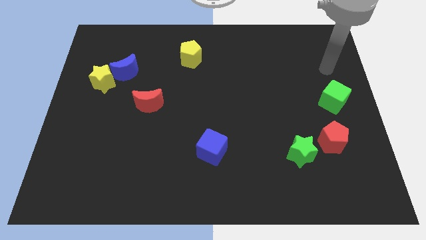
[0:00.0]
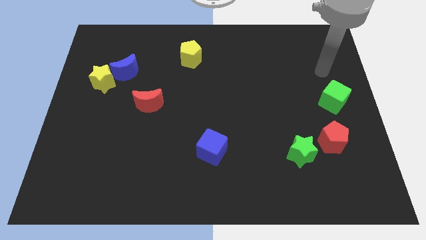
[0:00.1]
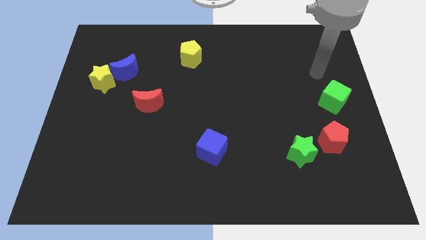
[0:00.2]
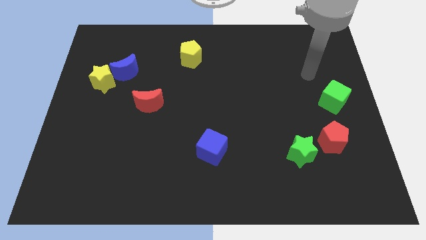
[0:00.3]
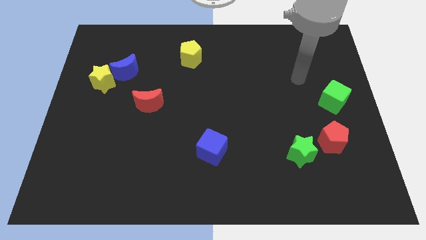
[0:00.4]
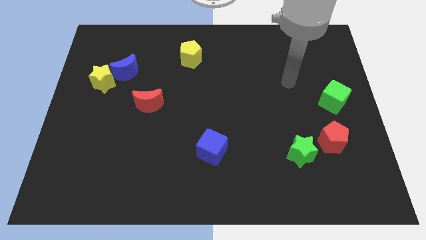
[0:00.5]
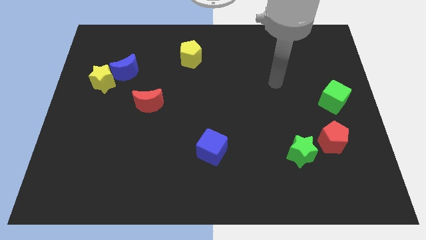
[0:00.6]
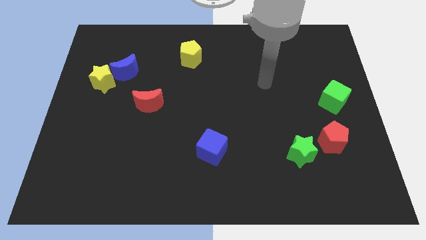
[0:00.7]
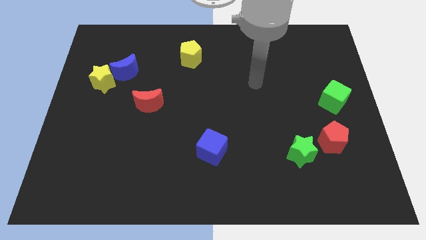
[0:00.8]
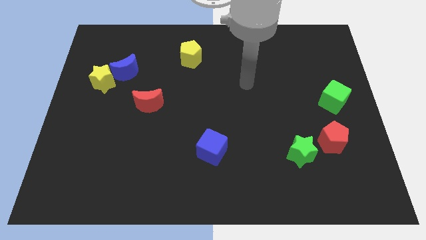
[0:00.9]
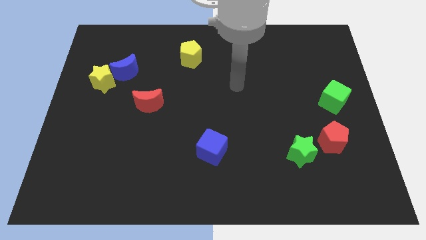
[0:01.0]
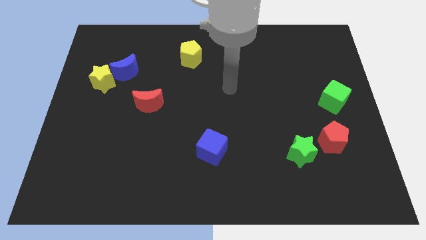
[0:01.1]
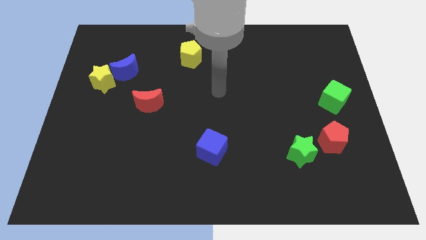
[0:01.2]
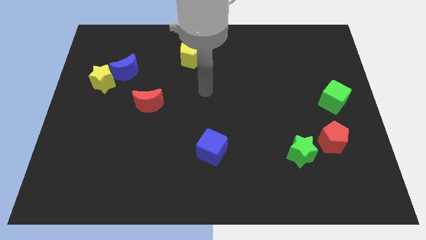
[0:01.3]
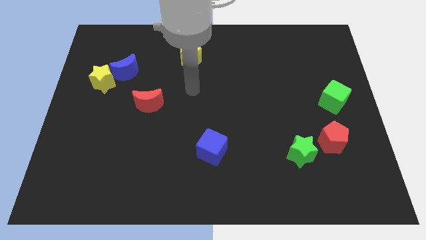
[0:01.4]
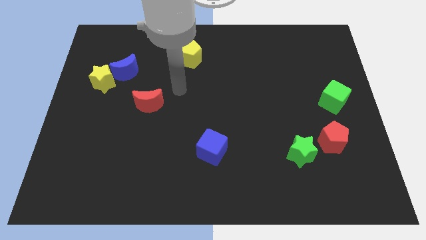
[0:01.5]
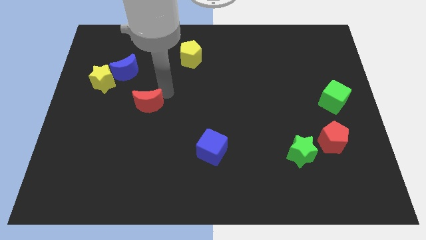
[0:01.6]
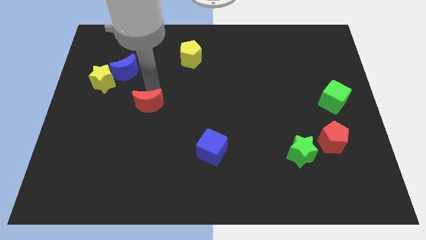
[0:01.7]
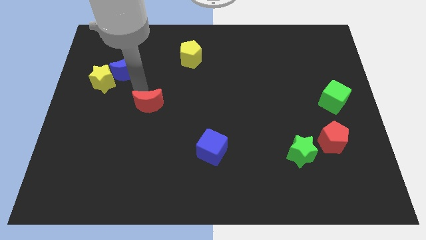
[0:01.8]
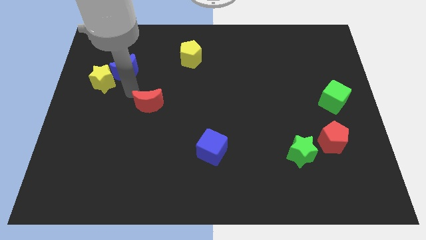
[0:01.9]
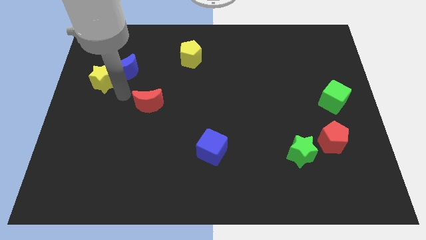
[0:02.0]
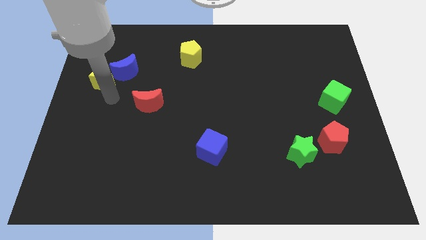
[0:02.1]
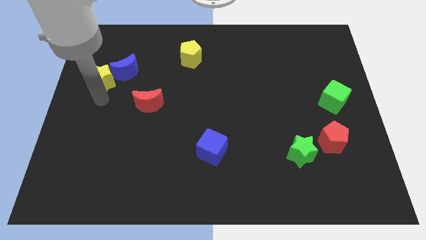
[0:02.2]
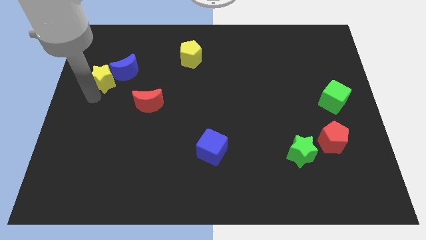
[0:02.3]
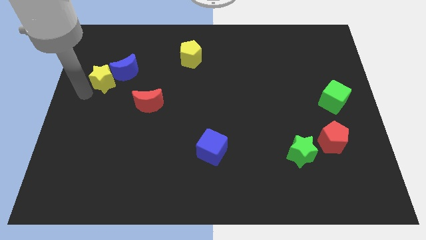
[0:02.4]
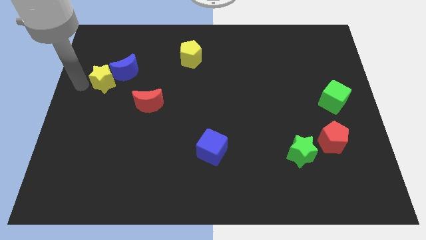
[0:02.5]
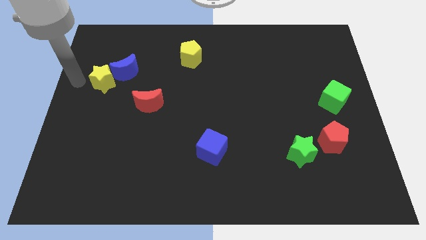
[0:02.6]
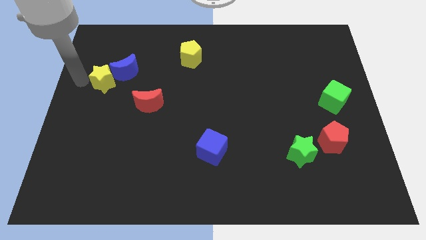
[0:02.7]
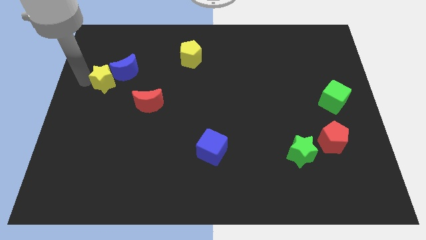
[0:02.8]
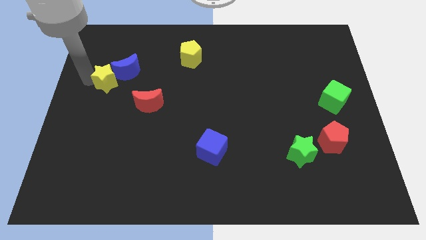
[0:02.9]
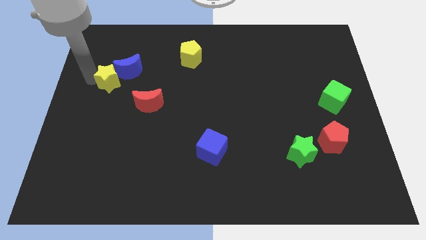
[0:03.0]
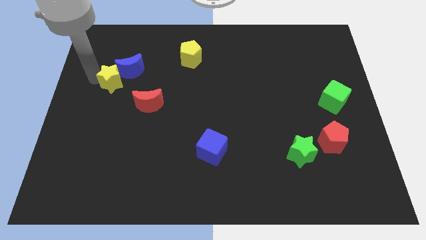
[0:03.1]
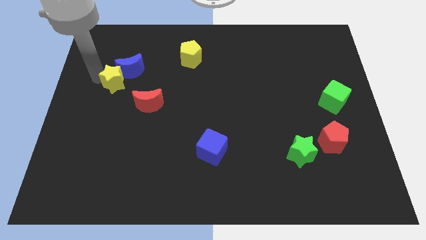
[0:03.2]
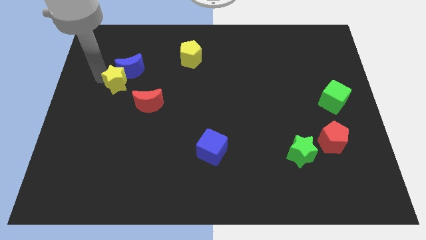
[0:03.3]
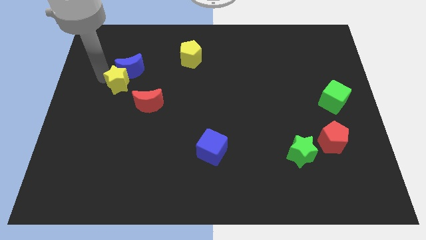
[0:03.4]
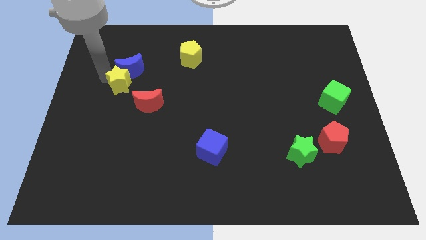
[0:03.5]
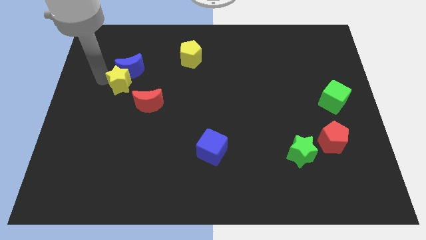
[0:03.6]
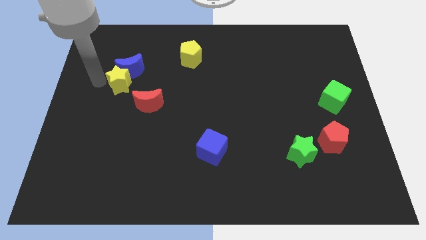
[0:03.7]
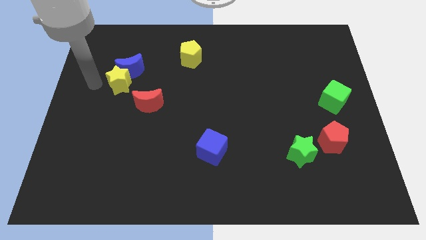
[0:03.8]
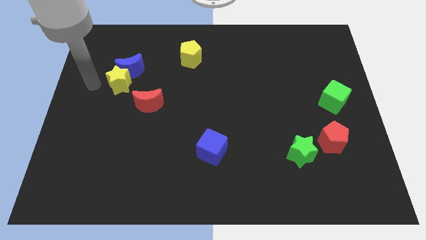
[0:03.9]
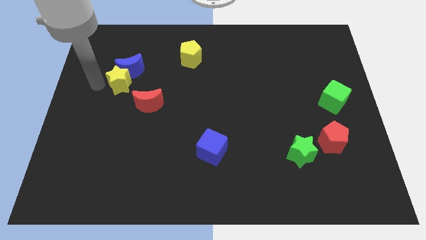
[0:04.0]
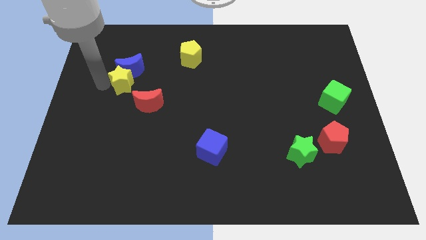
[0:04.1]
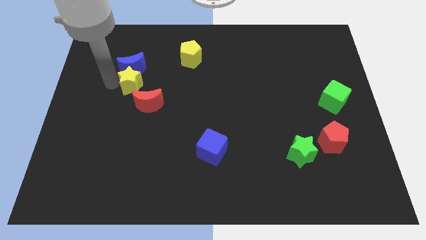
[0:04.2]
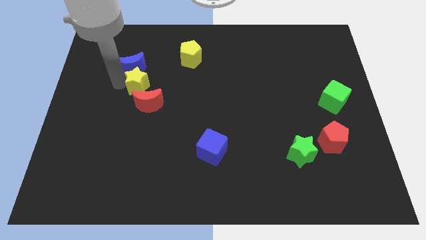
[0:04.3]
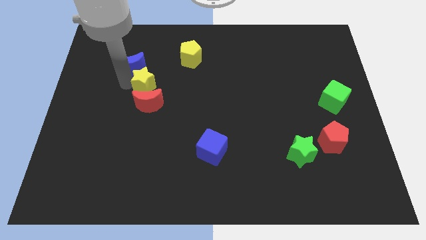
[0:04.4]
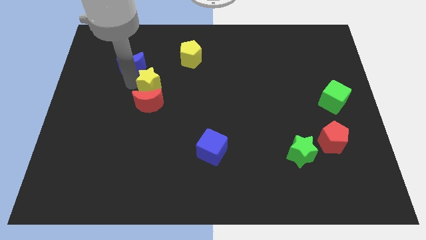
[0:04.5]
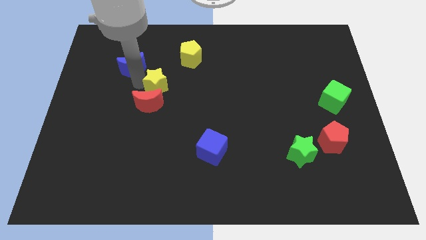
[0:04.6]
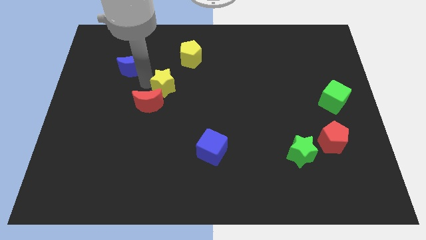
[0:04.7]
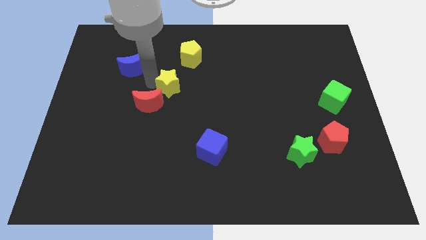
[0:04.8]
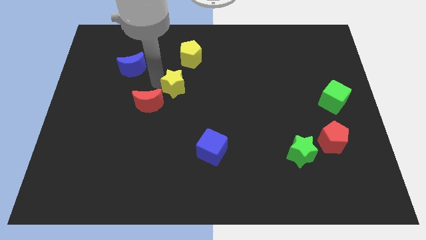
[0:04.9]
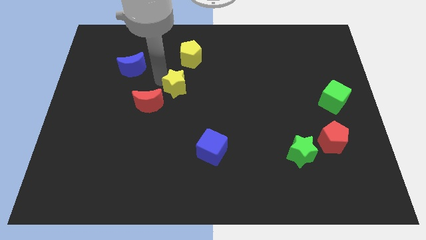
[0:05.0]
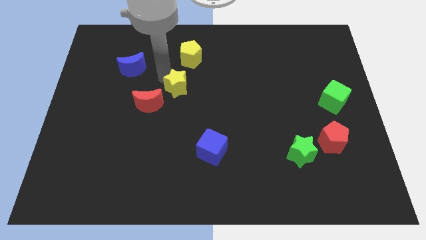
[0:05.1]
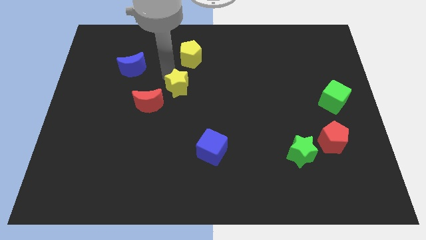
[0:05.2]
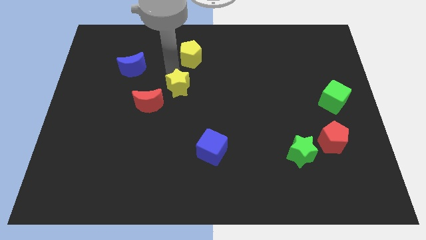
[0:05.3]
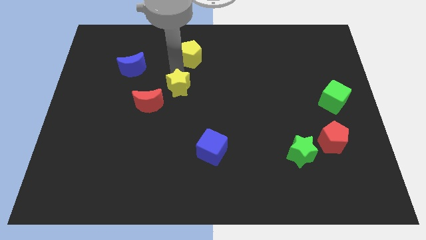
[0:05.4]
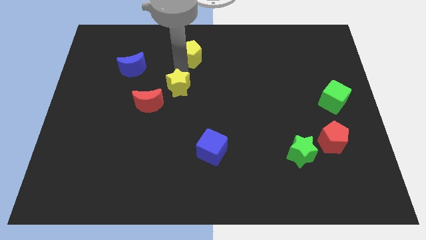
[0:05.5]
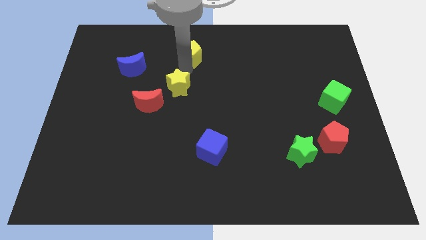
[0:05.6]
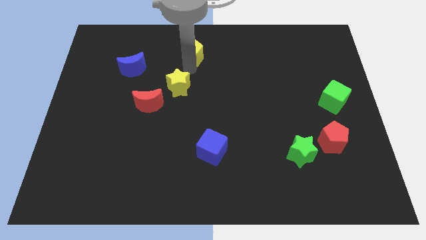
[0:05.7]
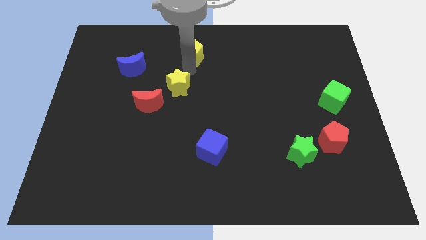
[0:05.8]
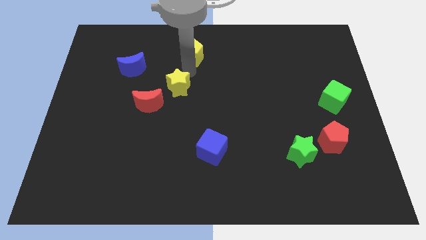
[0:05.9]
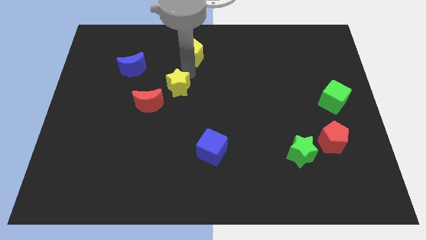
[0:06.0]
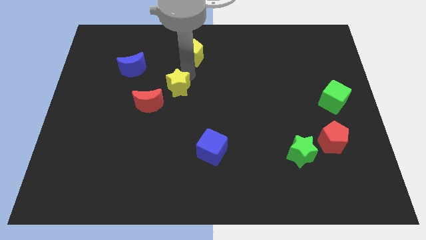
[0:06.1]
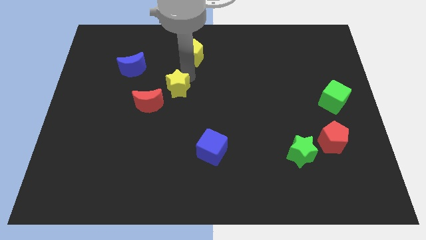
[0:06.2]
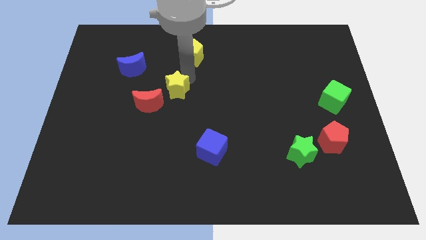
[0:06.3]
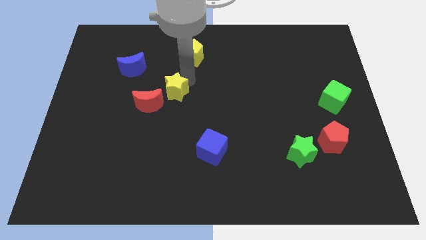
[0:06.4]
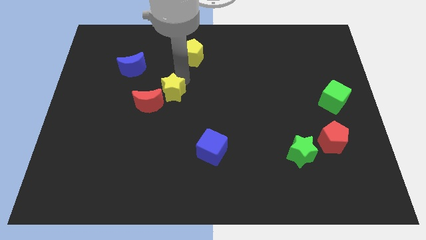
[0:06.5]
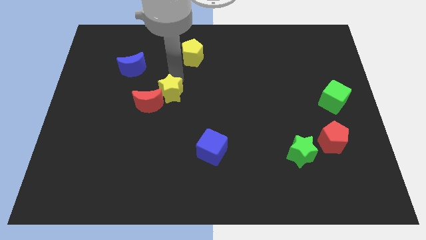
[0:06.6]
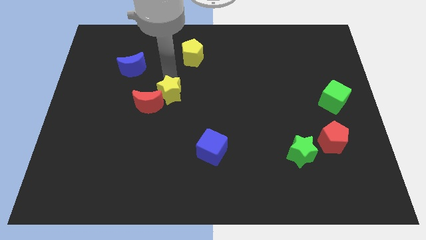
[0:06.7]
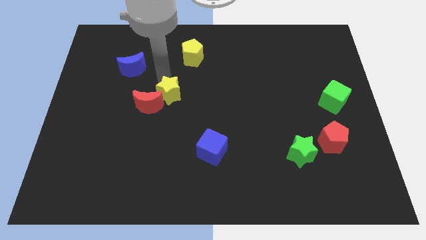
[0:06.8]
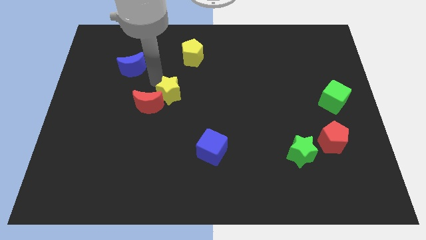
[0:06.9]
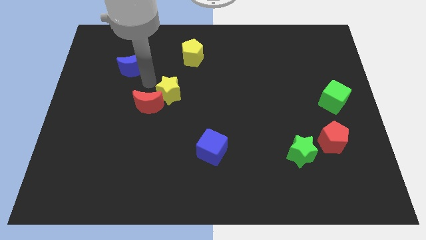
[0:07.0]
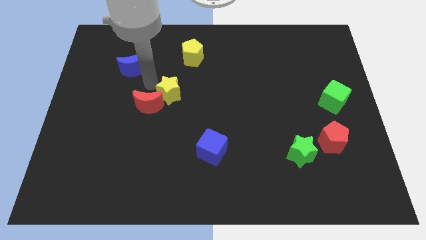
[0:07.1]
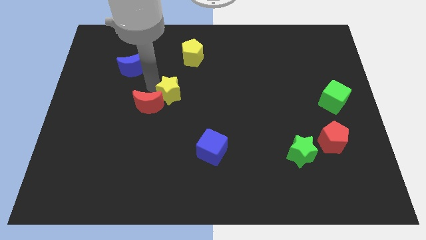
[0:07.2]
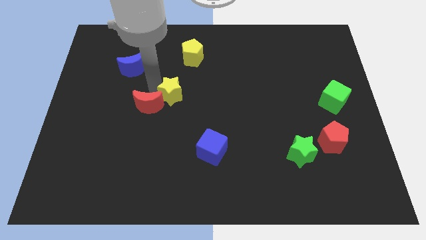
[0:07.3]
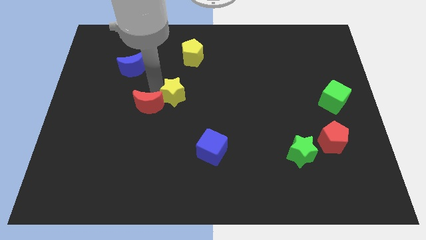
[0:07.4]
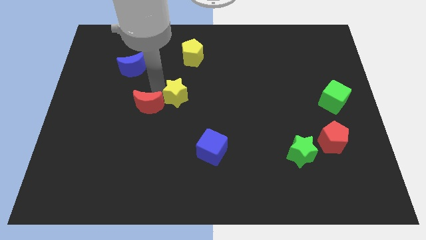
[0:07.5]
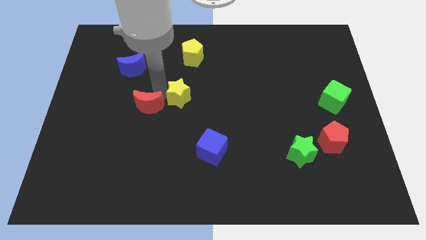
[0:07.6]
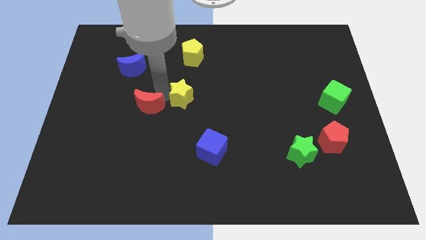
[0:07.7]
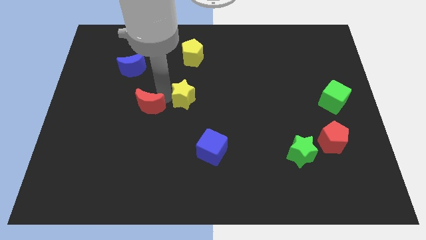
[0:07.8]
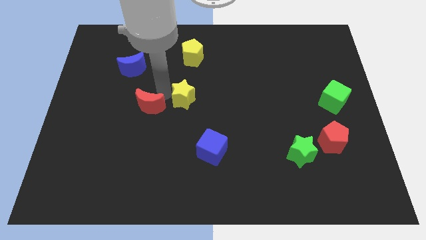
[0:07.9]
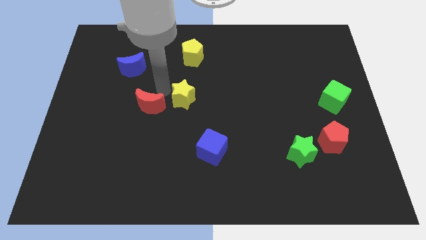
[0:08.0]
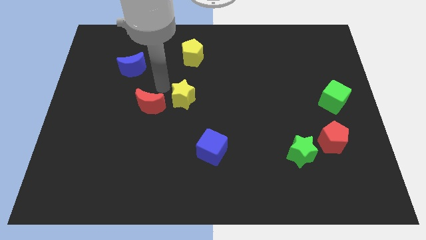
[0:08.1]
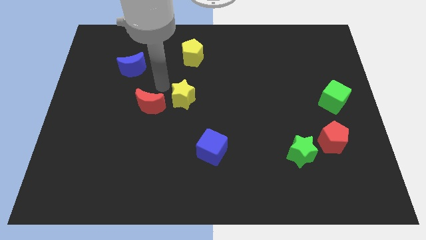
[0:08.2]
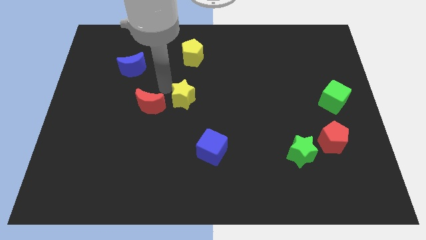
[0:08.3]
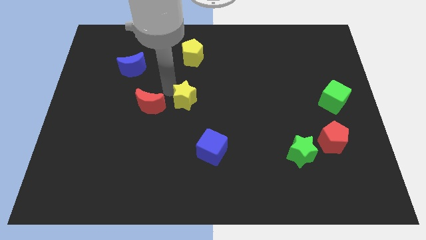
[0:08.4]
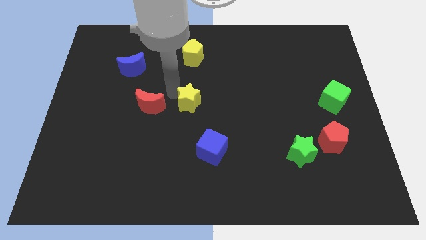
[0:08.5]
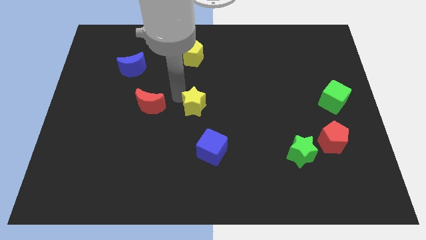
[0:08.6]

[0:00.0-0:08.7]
move the yellow star above the blue cube
